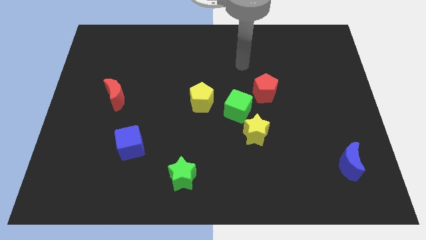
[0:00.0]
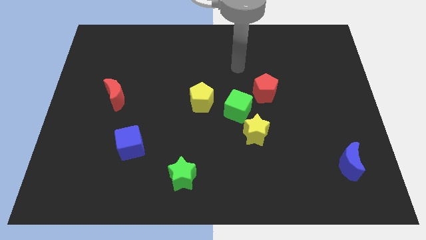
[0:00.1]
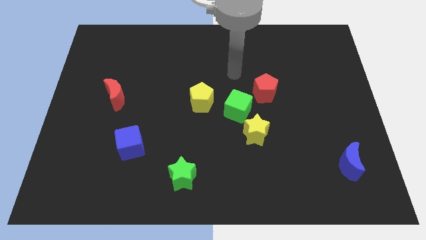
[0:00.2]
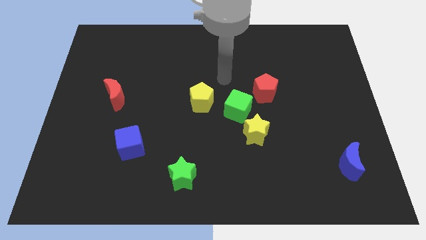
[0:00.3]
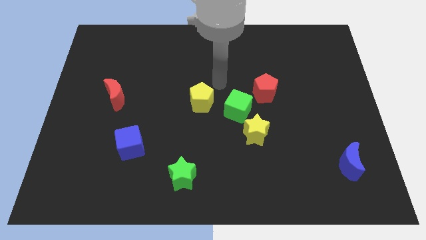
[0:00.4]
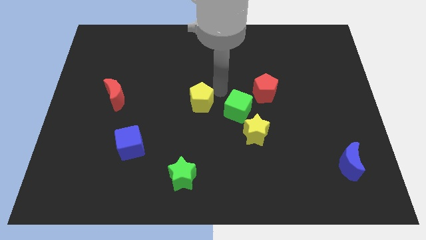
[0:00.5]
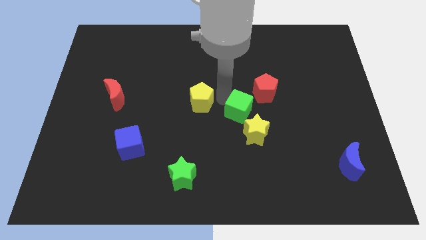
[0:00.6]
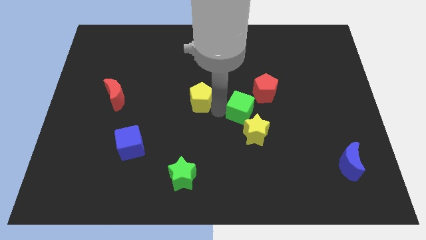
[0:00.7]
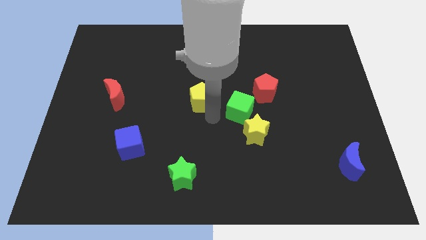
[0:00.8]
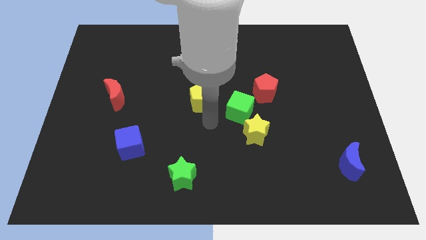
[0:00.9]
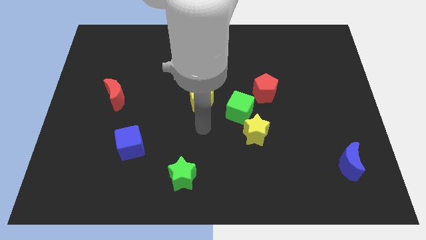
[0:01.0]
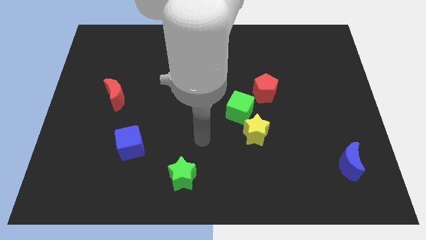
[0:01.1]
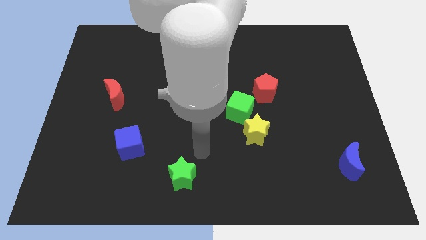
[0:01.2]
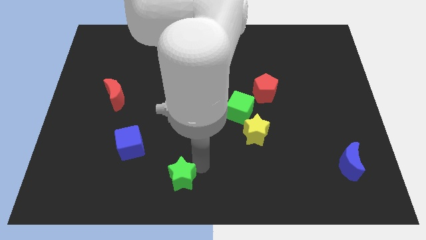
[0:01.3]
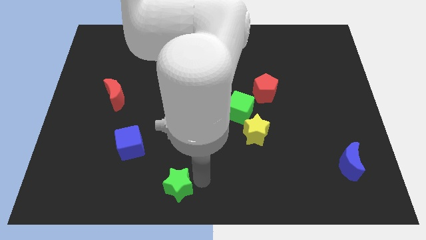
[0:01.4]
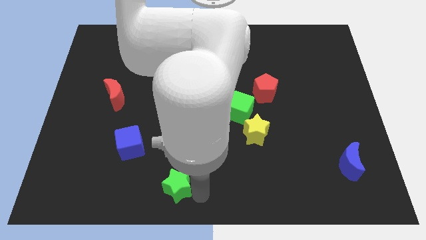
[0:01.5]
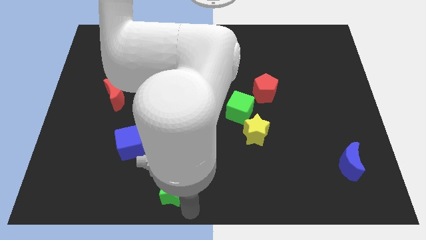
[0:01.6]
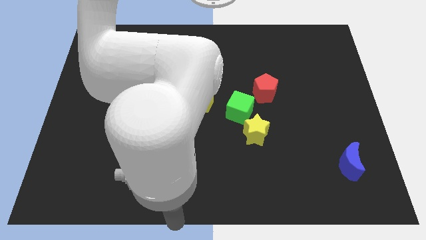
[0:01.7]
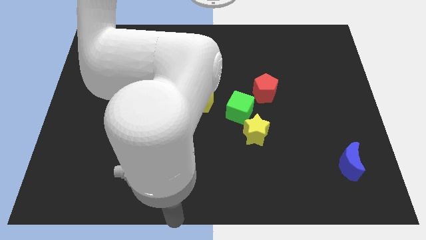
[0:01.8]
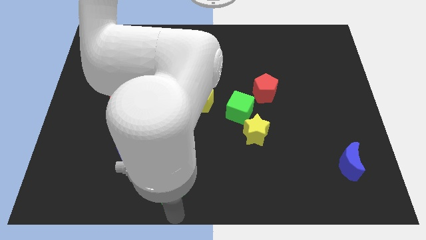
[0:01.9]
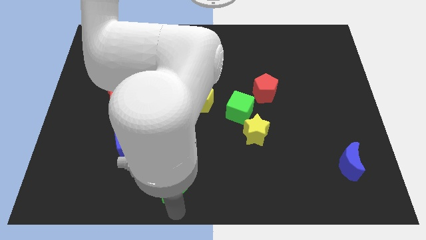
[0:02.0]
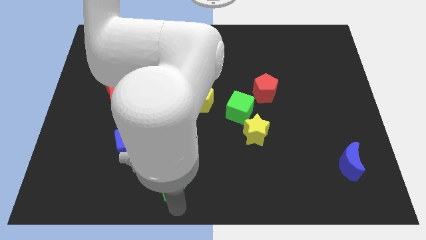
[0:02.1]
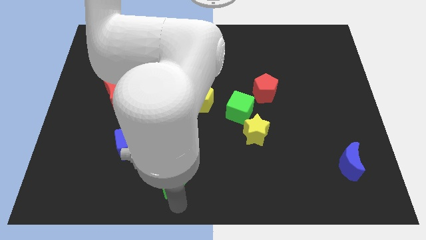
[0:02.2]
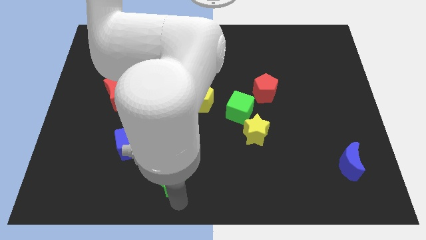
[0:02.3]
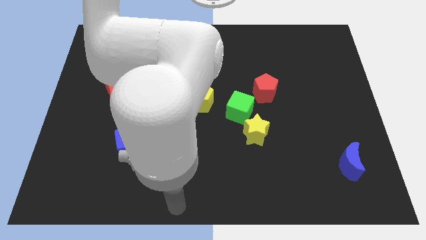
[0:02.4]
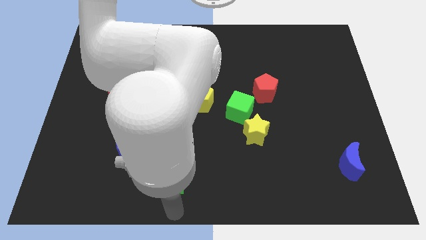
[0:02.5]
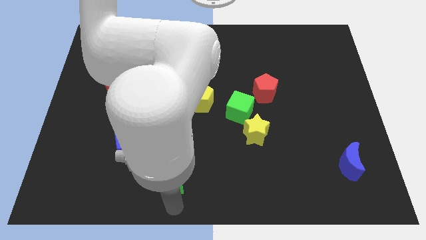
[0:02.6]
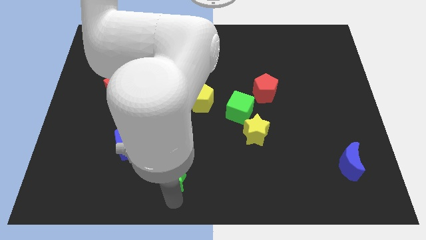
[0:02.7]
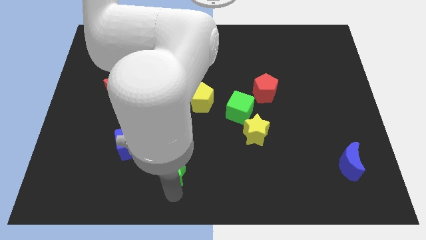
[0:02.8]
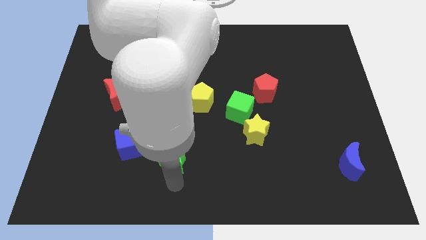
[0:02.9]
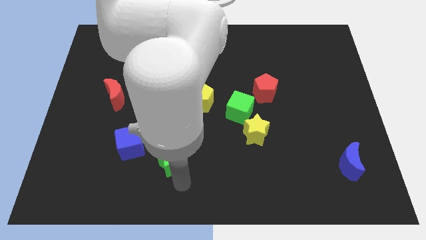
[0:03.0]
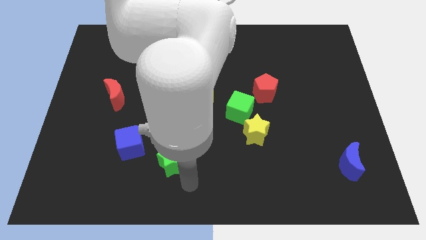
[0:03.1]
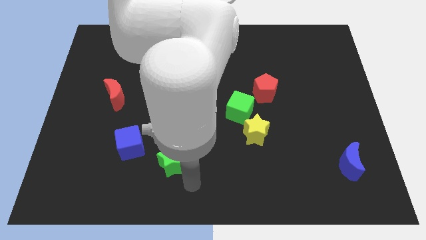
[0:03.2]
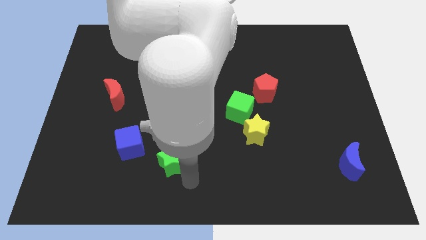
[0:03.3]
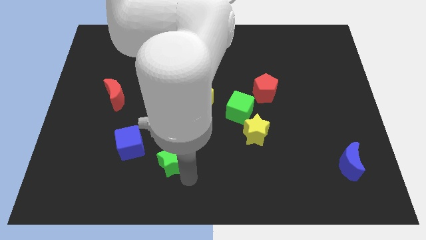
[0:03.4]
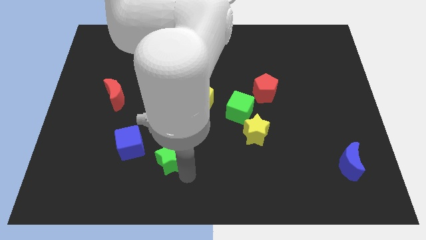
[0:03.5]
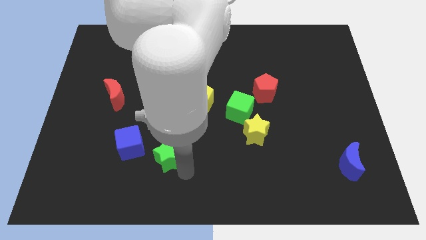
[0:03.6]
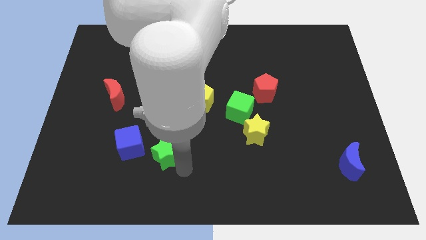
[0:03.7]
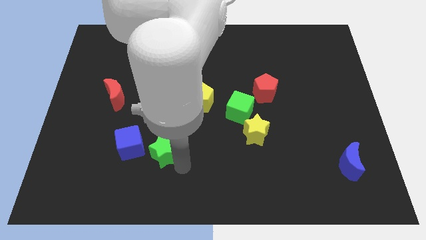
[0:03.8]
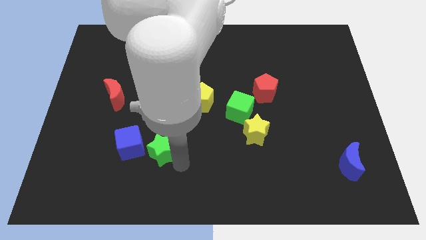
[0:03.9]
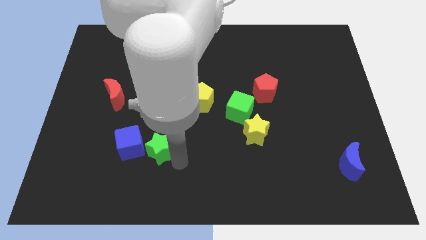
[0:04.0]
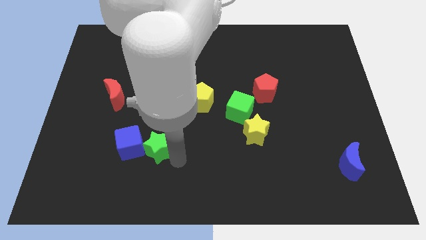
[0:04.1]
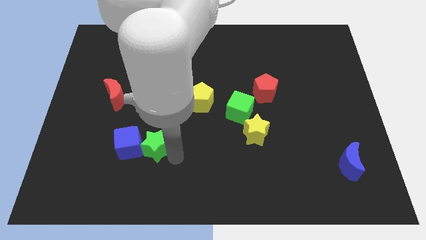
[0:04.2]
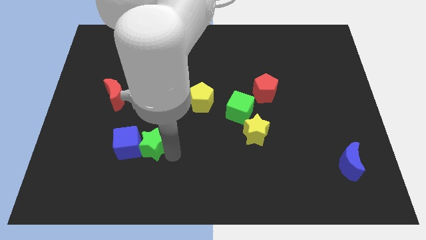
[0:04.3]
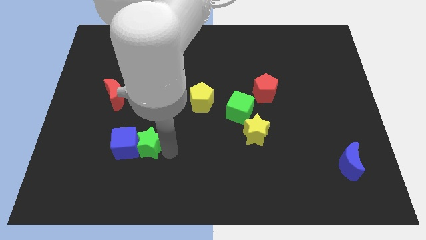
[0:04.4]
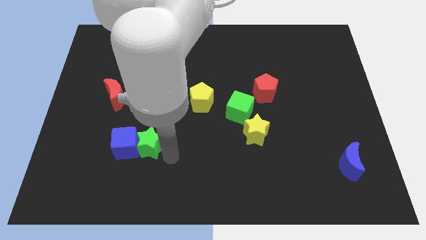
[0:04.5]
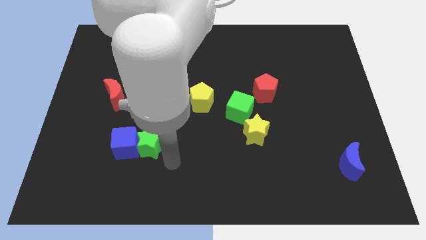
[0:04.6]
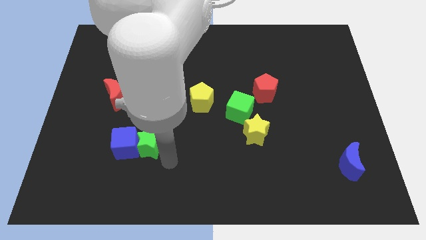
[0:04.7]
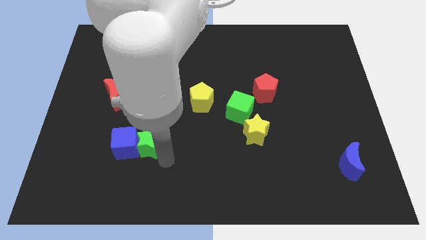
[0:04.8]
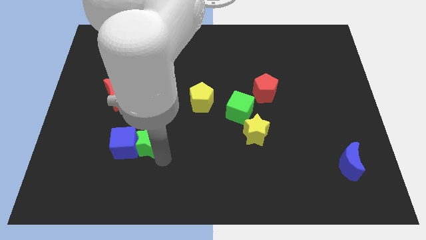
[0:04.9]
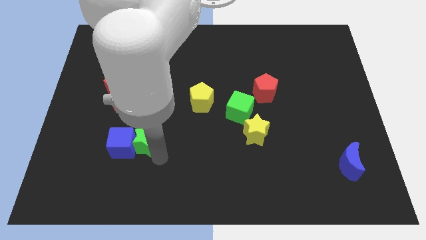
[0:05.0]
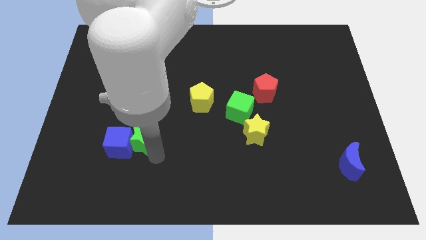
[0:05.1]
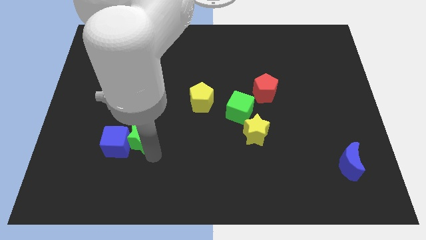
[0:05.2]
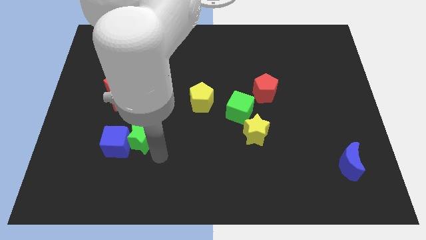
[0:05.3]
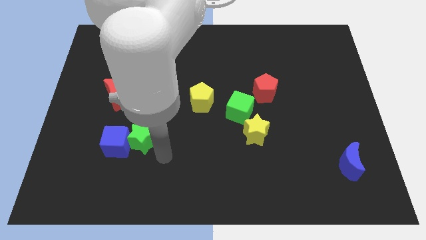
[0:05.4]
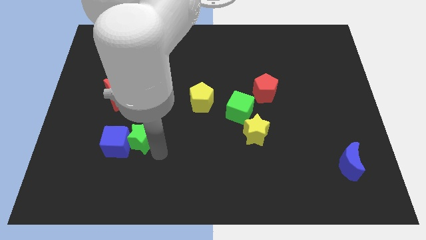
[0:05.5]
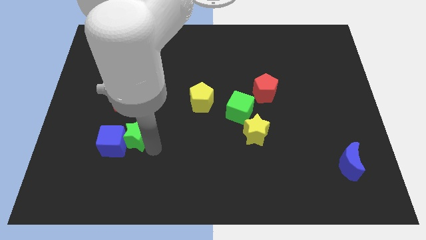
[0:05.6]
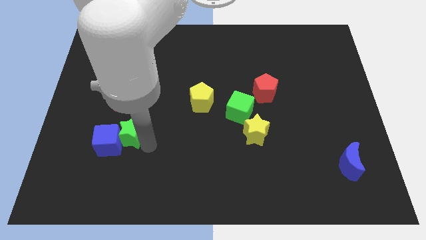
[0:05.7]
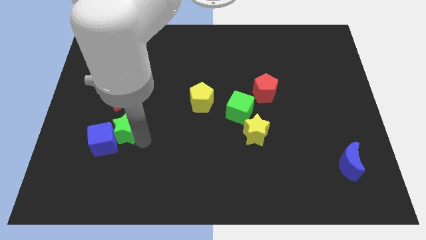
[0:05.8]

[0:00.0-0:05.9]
push the green star to the bottom of the red moon

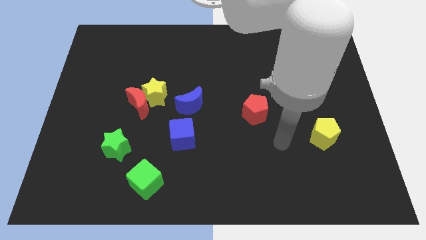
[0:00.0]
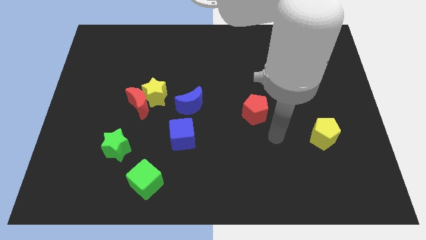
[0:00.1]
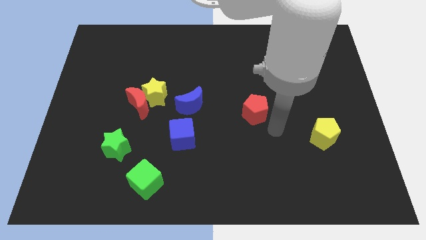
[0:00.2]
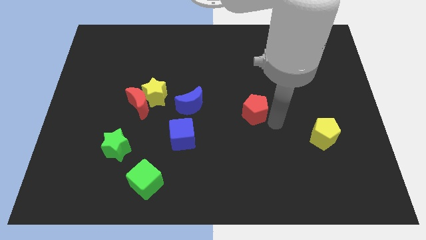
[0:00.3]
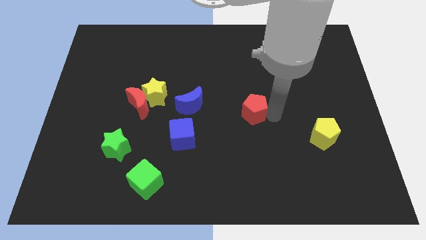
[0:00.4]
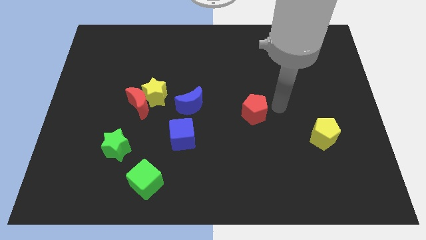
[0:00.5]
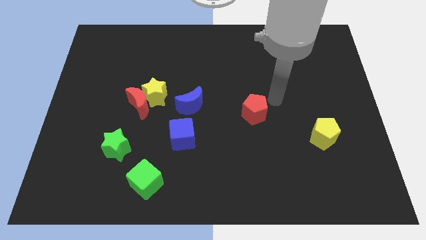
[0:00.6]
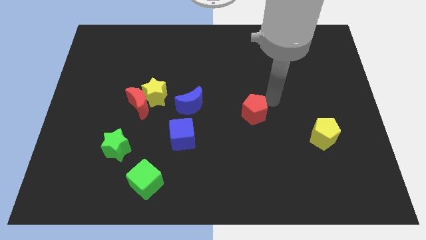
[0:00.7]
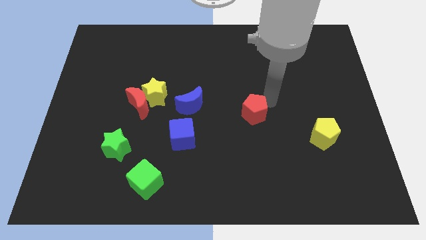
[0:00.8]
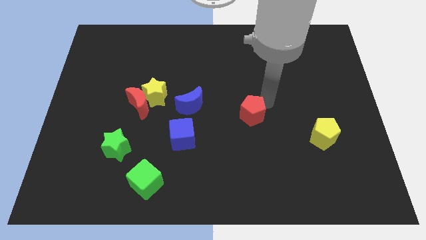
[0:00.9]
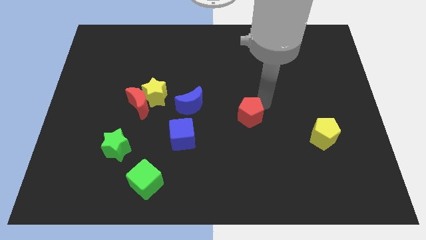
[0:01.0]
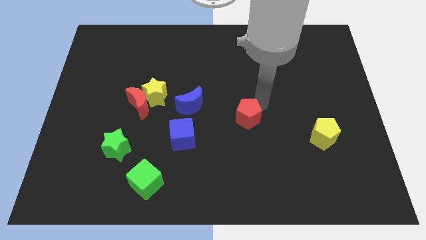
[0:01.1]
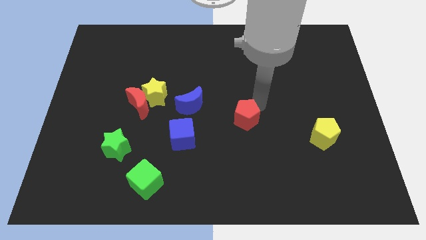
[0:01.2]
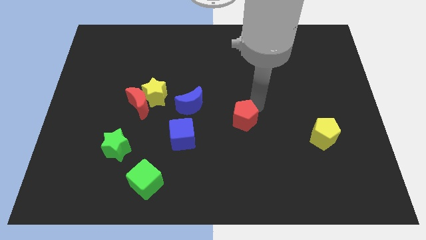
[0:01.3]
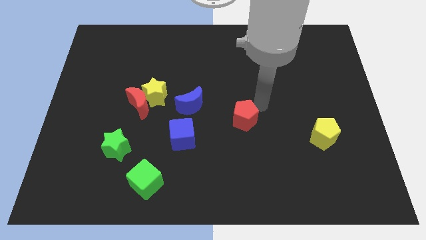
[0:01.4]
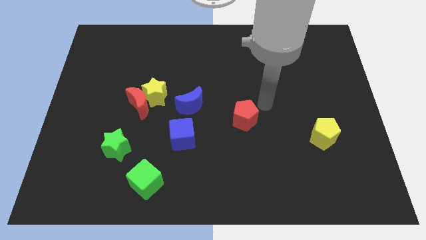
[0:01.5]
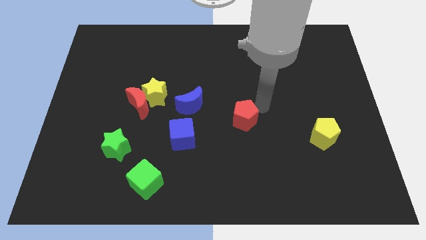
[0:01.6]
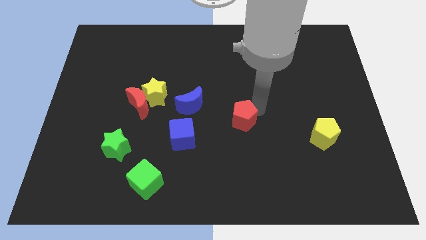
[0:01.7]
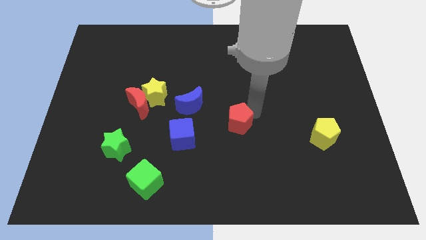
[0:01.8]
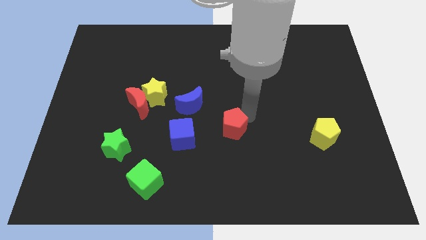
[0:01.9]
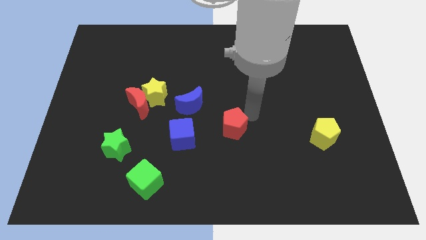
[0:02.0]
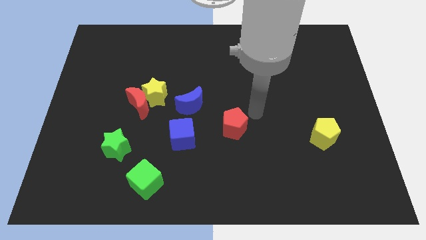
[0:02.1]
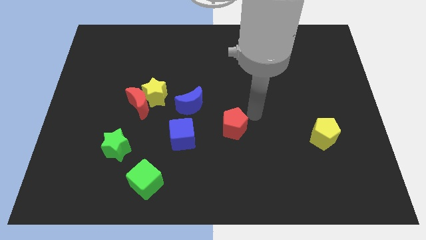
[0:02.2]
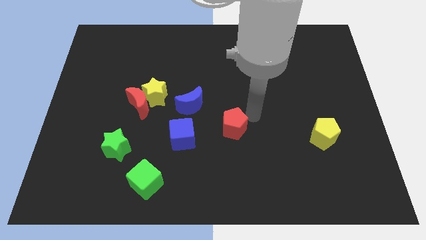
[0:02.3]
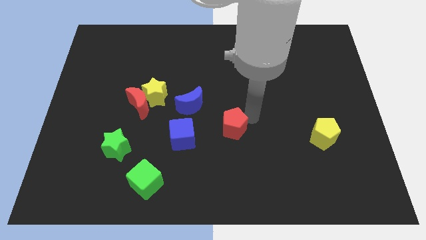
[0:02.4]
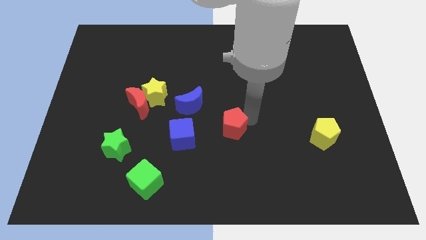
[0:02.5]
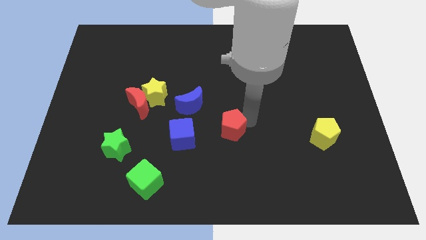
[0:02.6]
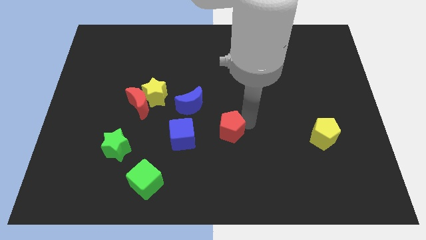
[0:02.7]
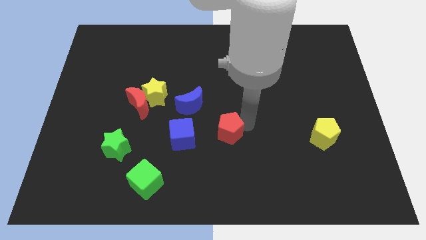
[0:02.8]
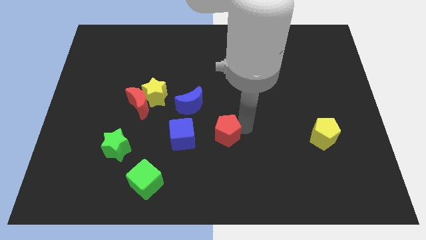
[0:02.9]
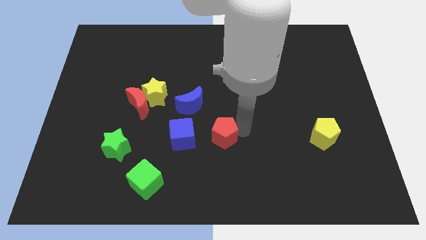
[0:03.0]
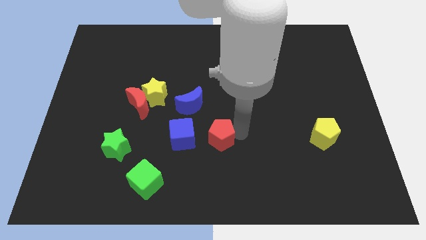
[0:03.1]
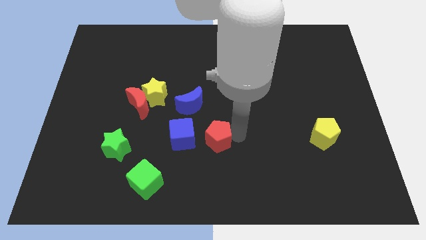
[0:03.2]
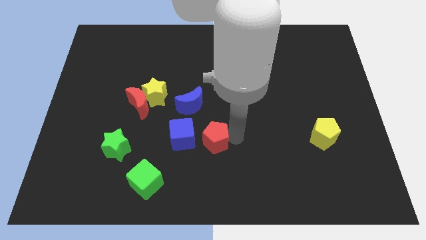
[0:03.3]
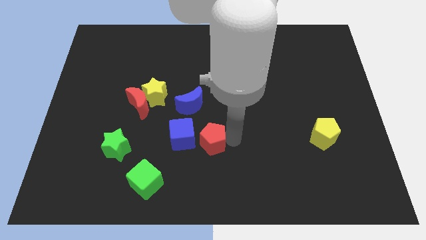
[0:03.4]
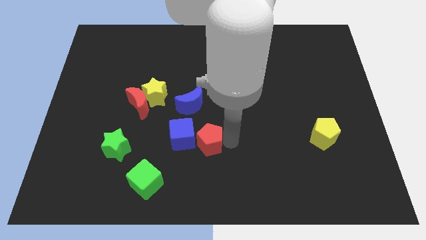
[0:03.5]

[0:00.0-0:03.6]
push the red pentagon to the bottom side of the blue moon
